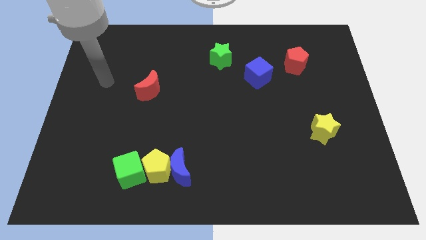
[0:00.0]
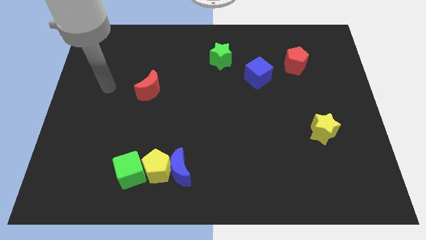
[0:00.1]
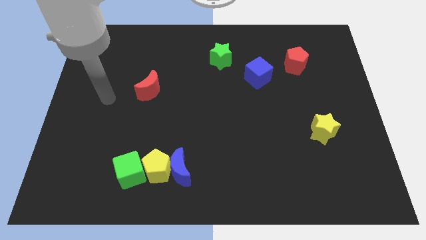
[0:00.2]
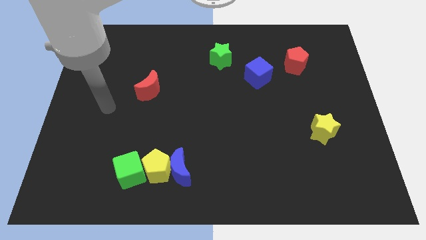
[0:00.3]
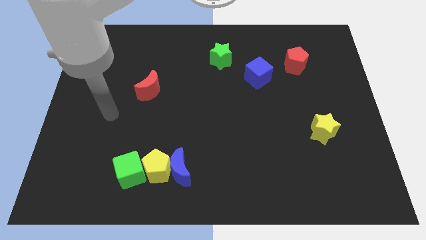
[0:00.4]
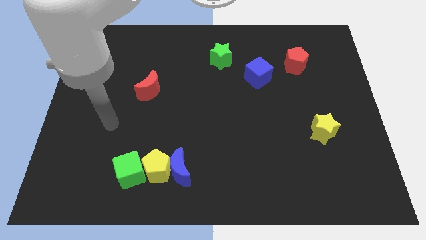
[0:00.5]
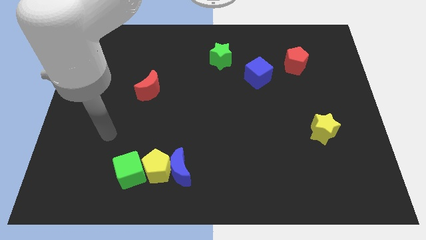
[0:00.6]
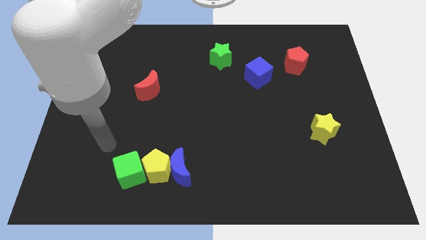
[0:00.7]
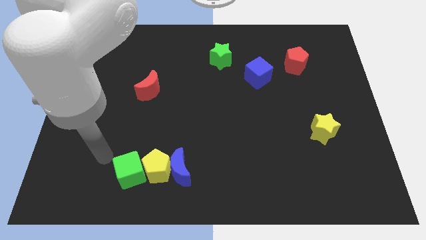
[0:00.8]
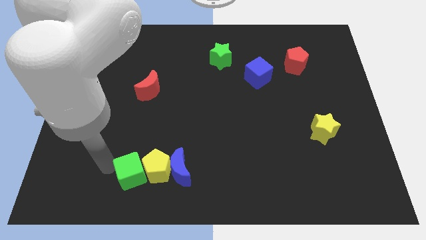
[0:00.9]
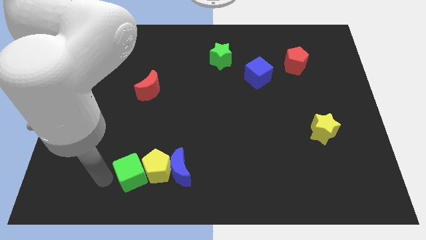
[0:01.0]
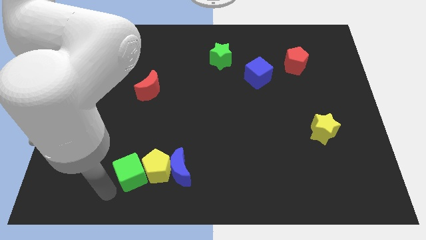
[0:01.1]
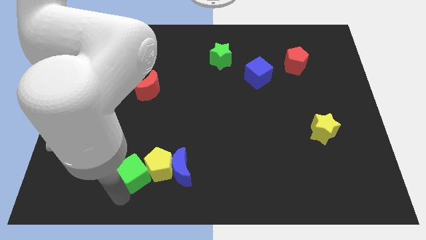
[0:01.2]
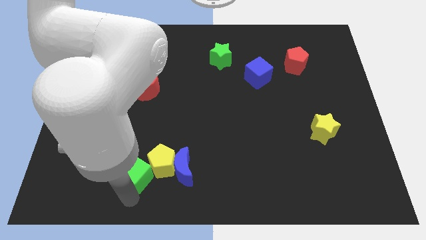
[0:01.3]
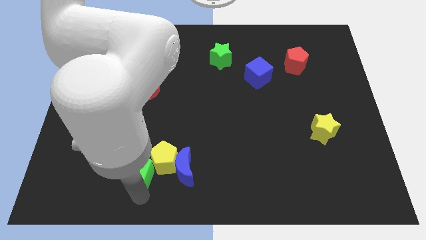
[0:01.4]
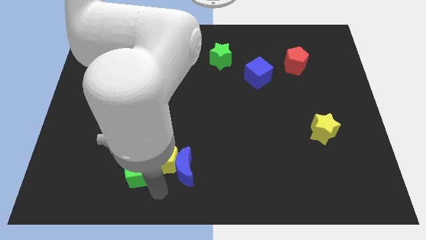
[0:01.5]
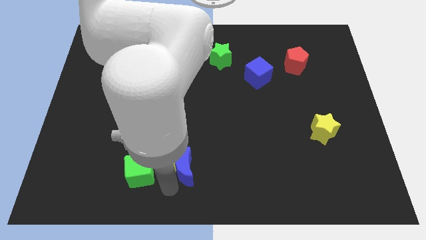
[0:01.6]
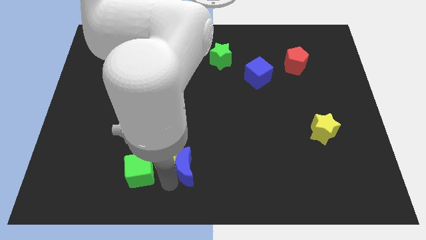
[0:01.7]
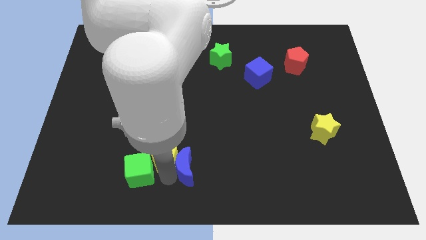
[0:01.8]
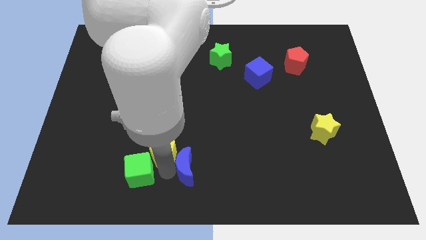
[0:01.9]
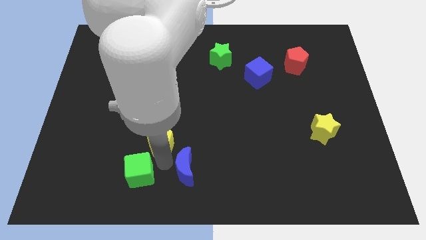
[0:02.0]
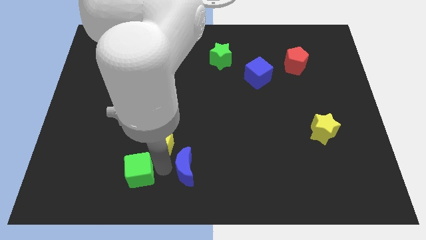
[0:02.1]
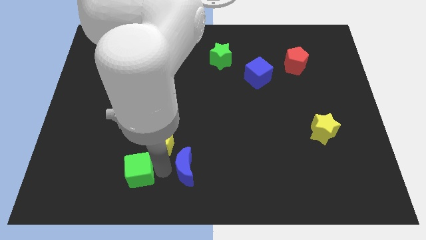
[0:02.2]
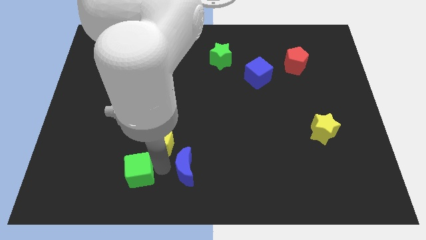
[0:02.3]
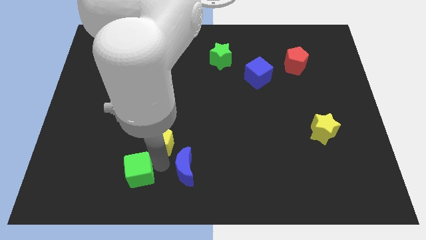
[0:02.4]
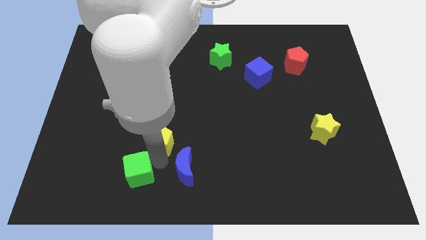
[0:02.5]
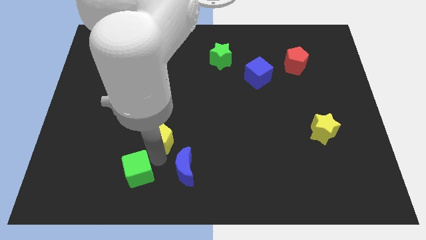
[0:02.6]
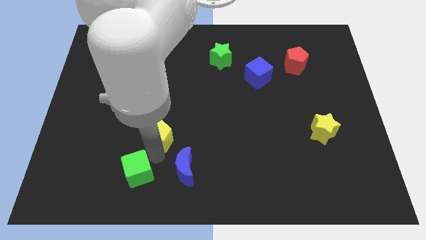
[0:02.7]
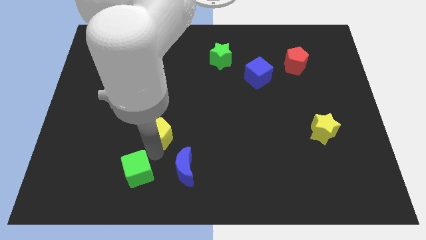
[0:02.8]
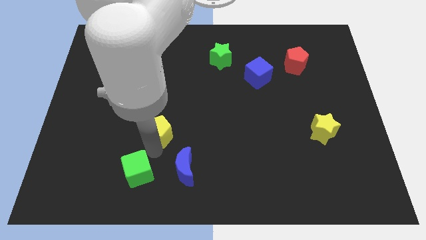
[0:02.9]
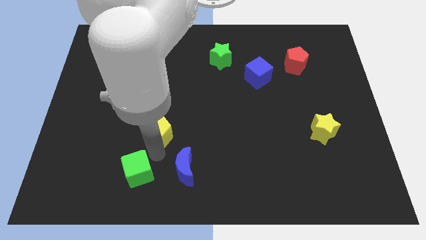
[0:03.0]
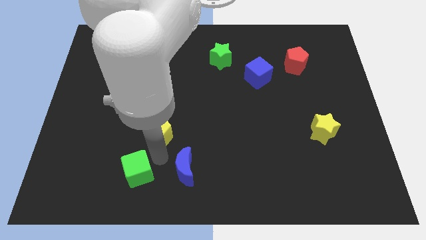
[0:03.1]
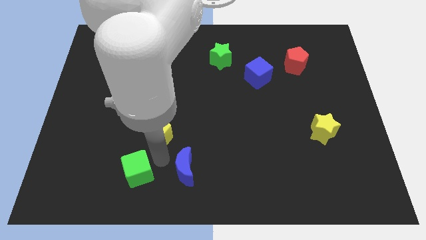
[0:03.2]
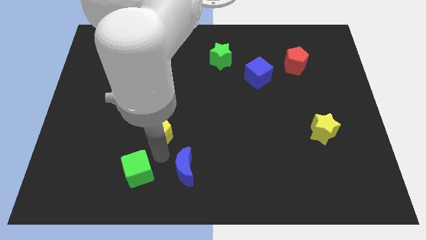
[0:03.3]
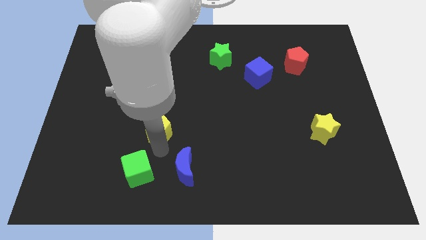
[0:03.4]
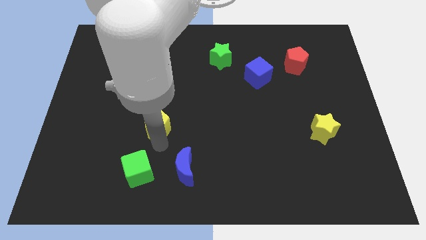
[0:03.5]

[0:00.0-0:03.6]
move the yellow pentagon away from the blue moon and green cube

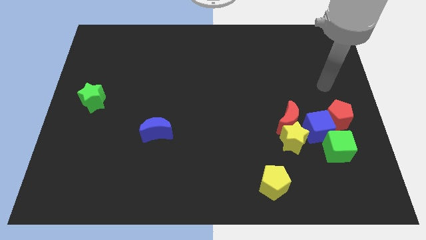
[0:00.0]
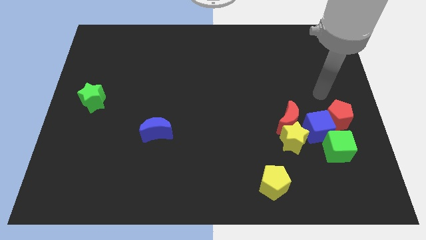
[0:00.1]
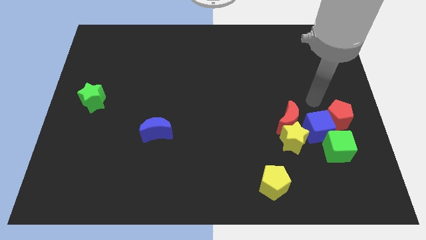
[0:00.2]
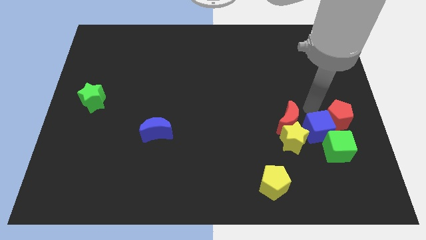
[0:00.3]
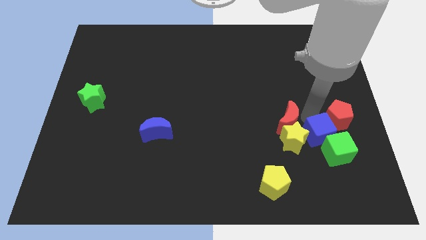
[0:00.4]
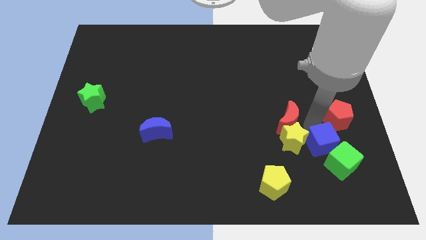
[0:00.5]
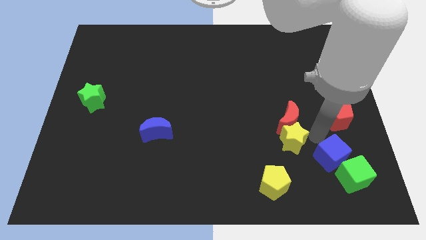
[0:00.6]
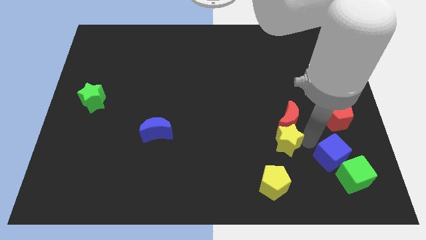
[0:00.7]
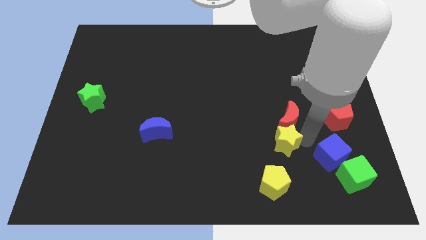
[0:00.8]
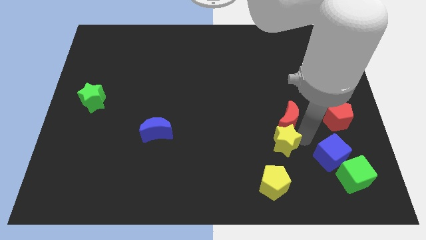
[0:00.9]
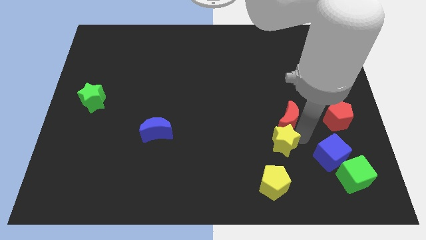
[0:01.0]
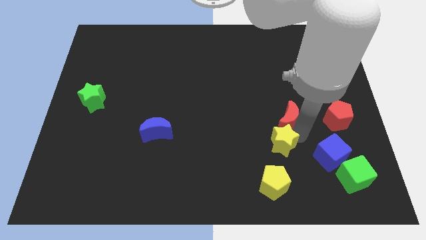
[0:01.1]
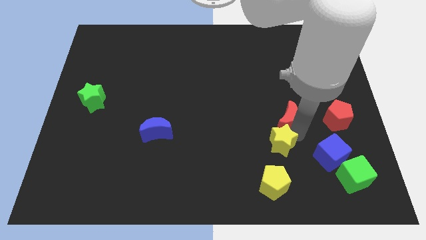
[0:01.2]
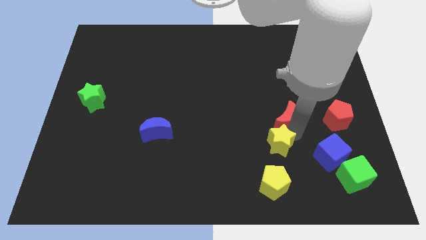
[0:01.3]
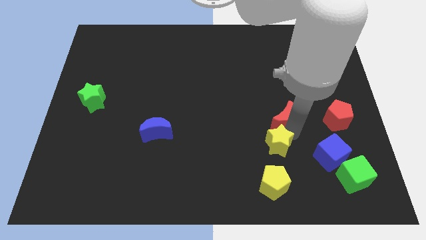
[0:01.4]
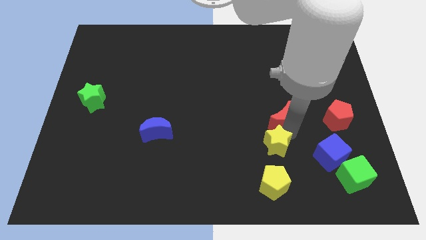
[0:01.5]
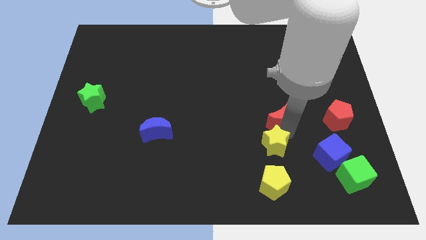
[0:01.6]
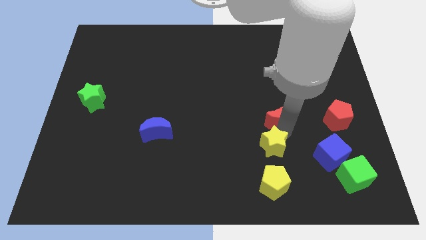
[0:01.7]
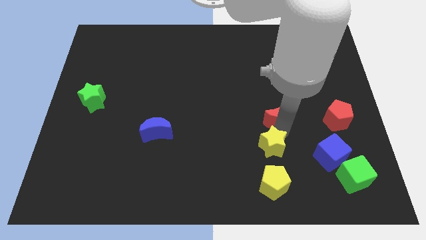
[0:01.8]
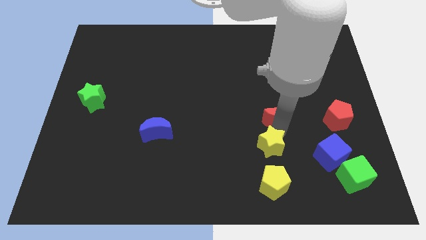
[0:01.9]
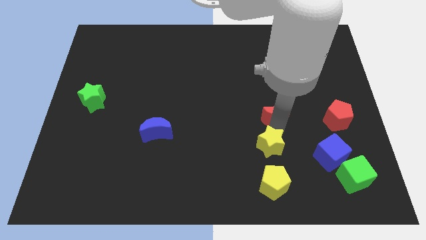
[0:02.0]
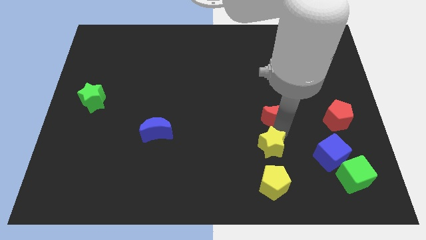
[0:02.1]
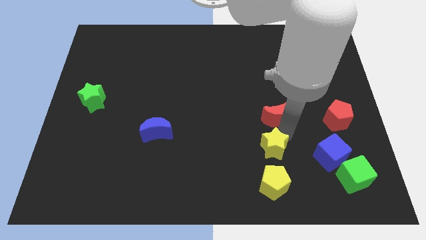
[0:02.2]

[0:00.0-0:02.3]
pull the red moon apart from the yellow star and blue cube

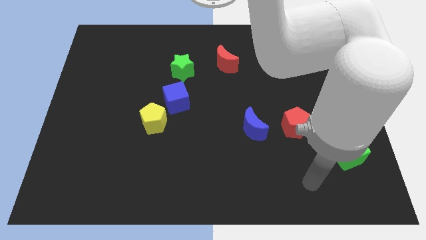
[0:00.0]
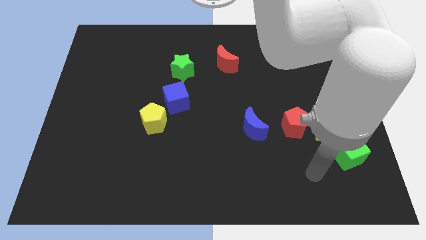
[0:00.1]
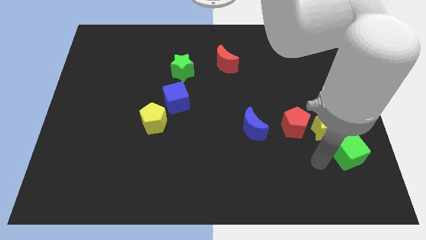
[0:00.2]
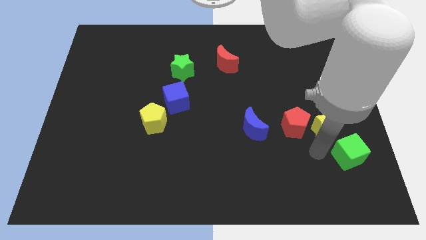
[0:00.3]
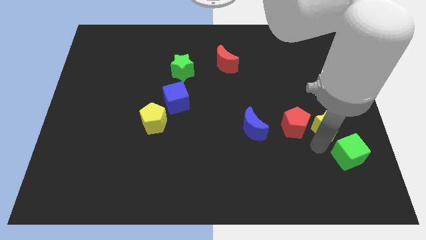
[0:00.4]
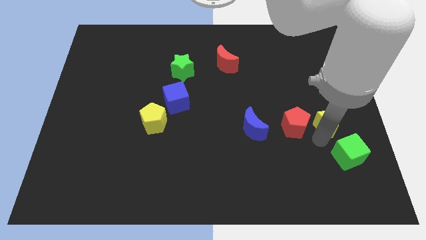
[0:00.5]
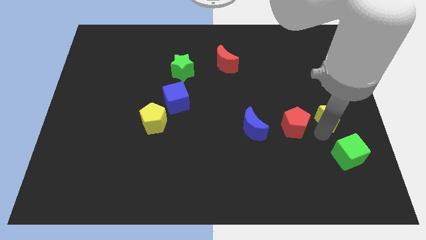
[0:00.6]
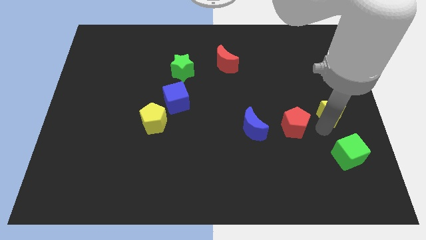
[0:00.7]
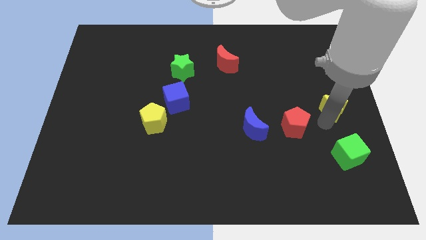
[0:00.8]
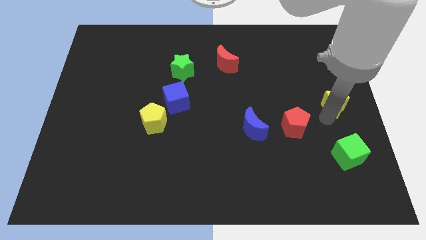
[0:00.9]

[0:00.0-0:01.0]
pull the yellow star apart from the red pentagon and green cube

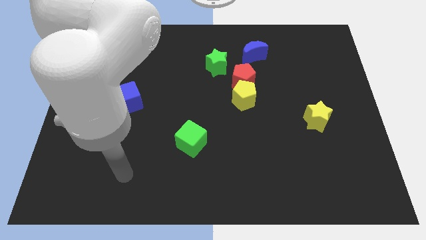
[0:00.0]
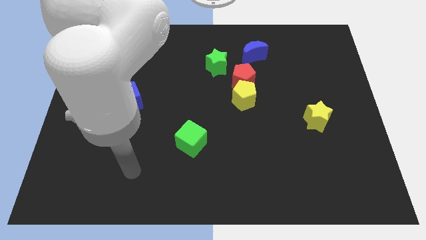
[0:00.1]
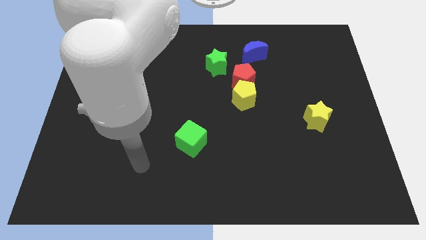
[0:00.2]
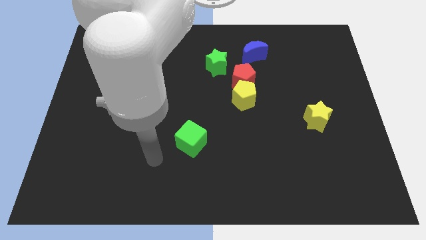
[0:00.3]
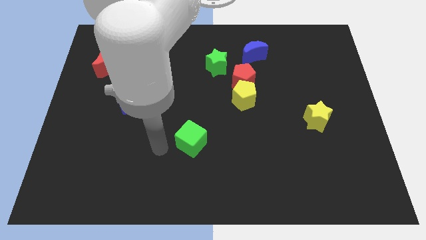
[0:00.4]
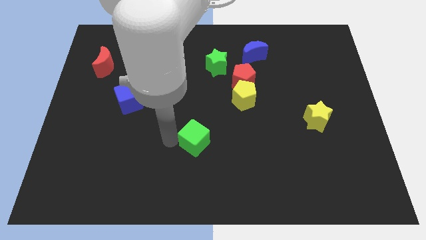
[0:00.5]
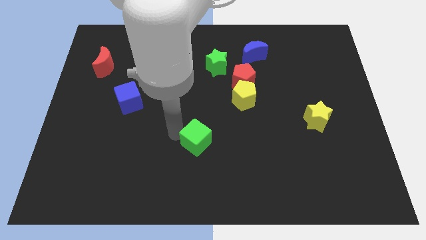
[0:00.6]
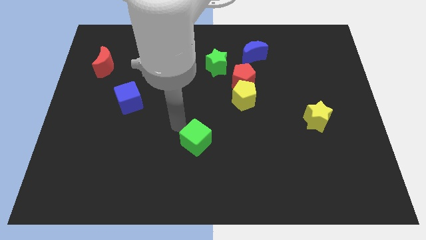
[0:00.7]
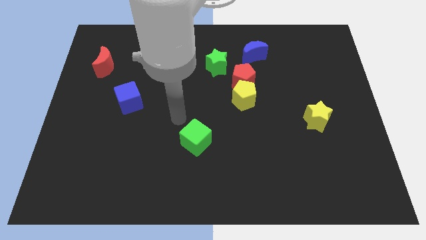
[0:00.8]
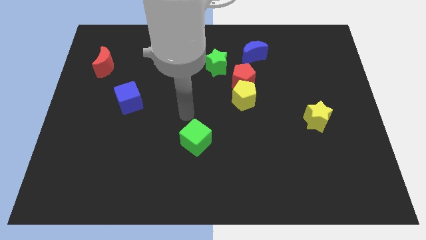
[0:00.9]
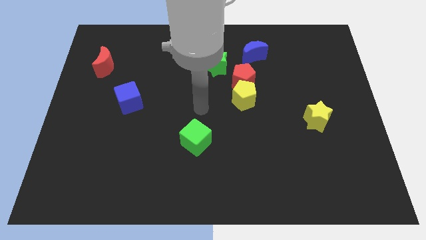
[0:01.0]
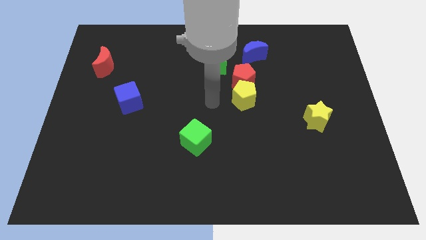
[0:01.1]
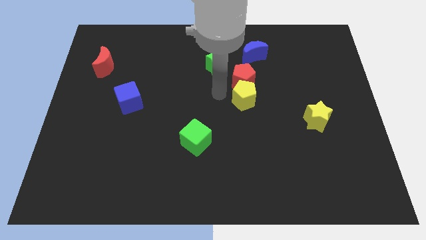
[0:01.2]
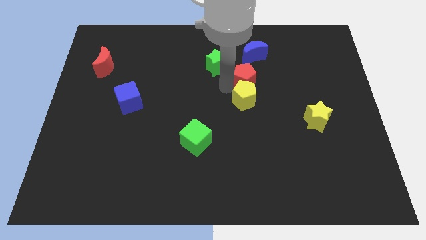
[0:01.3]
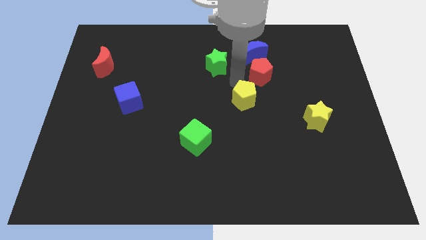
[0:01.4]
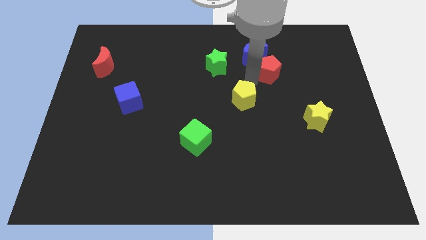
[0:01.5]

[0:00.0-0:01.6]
pull the yellow pentagon apart from the red pentagon

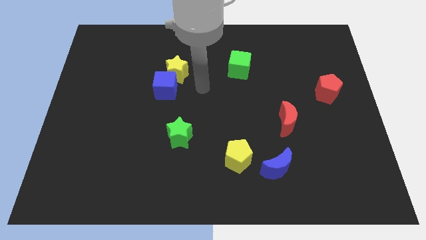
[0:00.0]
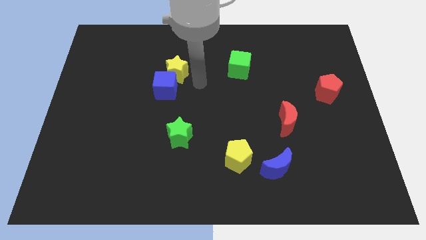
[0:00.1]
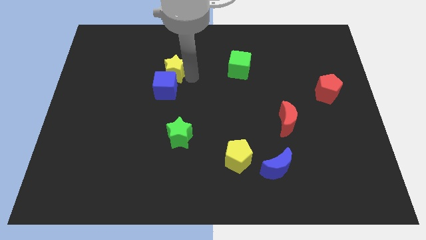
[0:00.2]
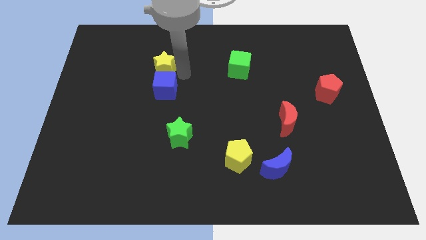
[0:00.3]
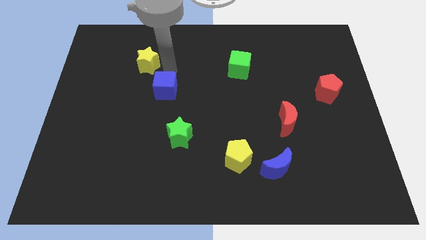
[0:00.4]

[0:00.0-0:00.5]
separate the blue cube from the yellow star

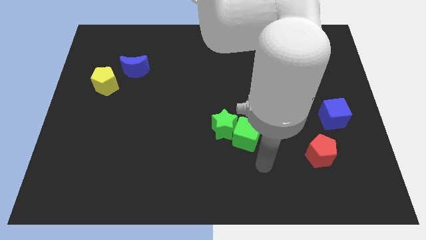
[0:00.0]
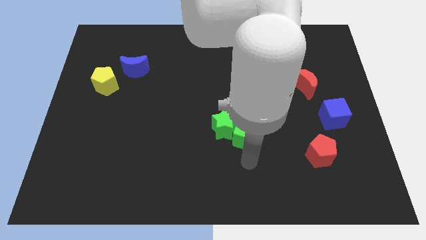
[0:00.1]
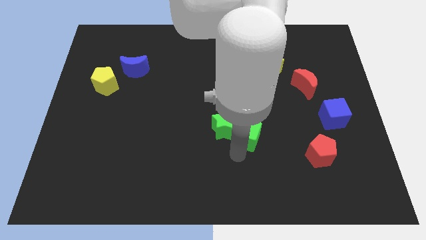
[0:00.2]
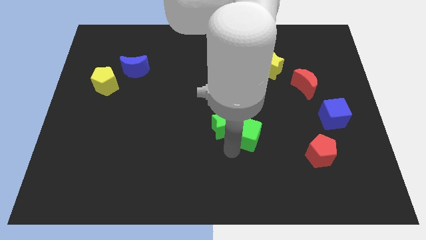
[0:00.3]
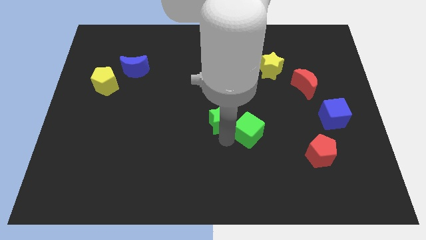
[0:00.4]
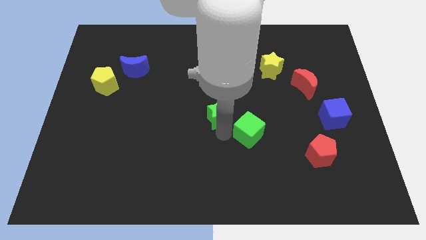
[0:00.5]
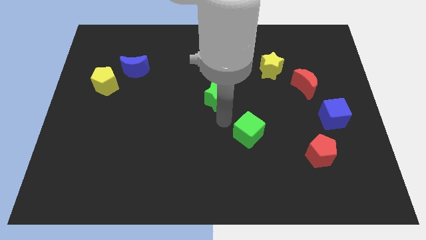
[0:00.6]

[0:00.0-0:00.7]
pull the green cube apart from the green star
